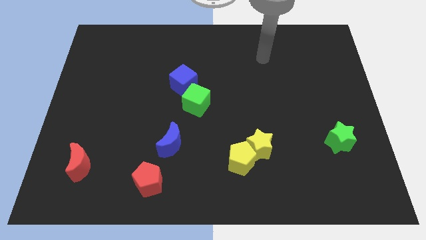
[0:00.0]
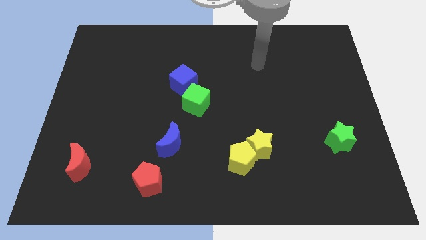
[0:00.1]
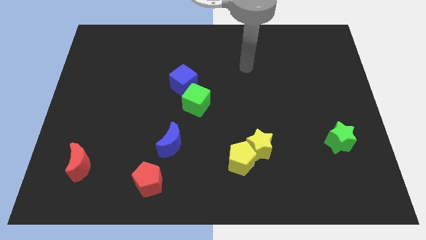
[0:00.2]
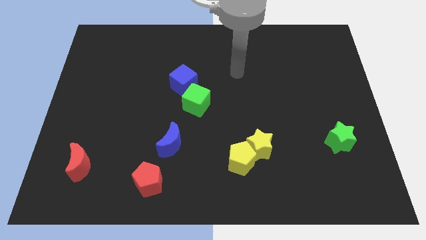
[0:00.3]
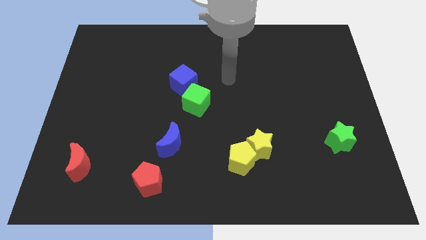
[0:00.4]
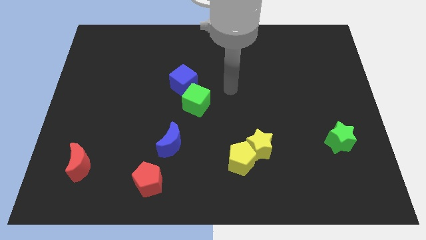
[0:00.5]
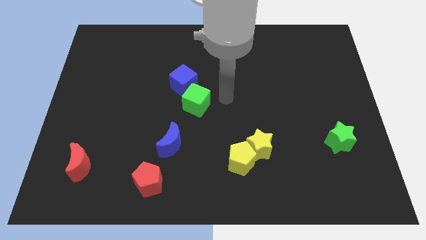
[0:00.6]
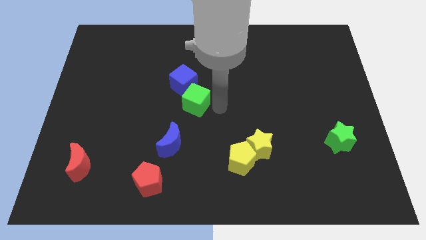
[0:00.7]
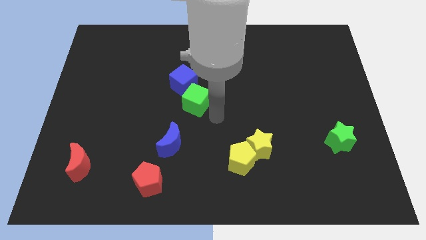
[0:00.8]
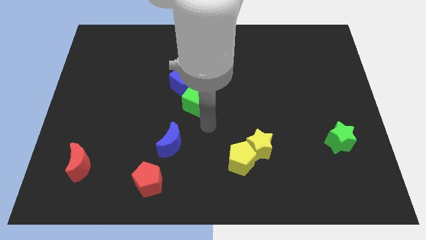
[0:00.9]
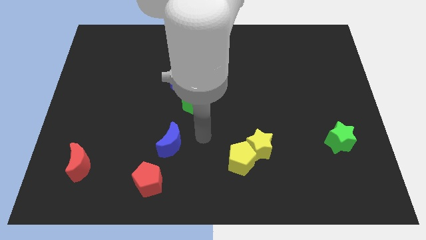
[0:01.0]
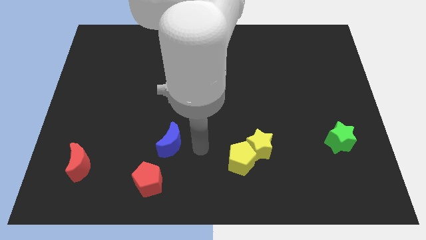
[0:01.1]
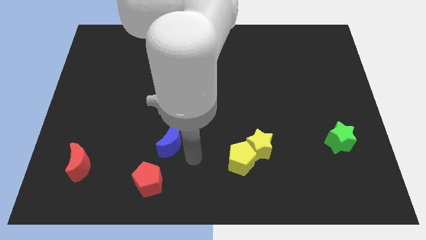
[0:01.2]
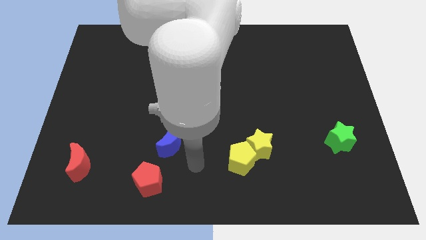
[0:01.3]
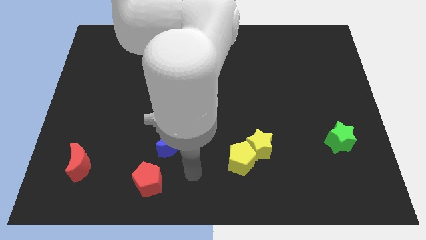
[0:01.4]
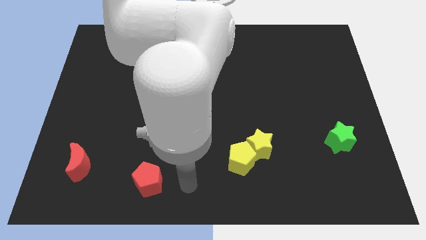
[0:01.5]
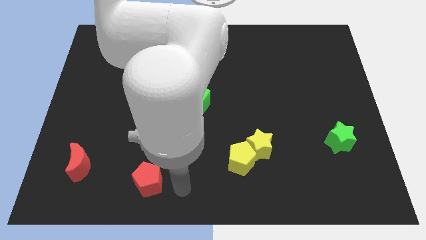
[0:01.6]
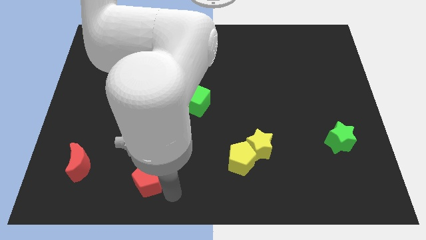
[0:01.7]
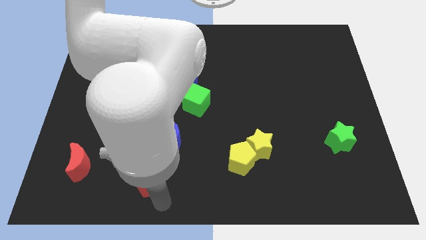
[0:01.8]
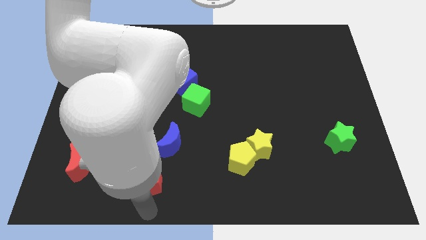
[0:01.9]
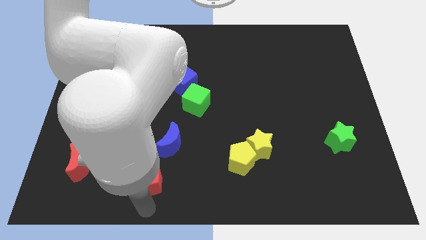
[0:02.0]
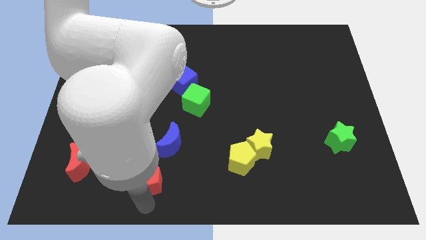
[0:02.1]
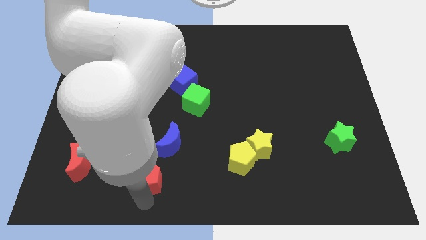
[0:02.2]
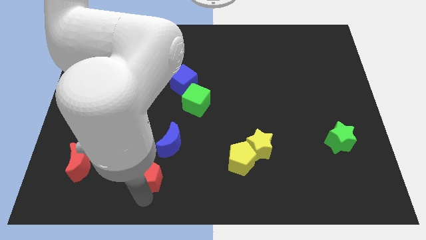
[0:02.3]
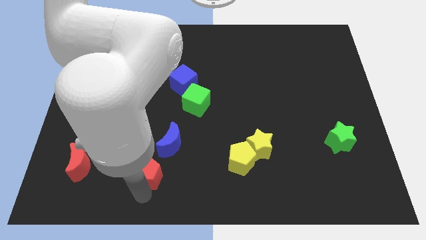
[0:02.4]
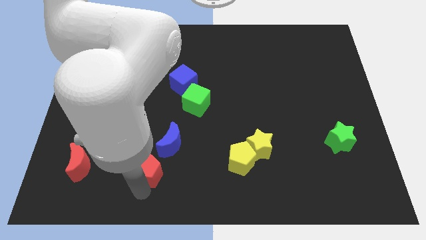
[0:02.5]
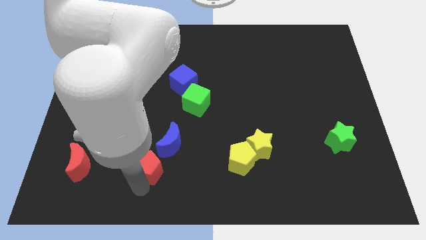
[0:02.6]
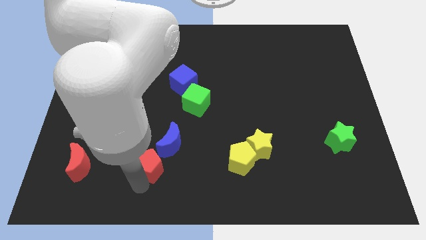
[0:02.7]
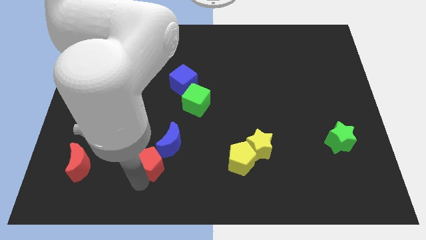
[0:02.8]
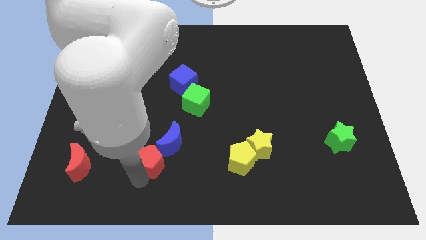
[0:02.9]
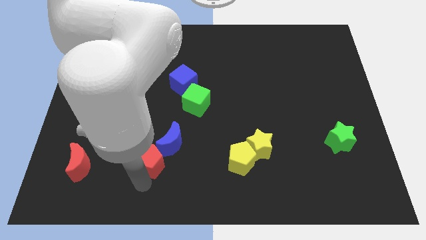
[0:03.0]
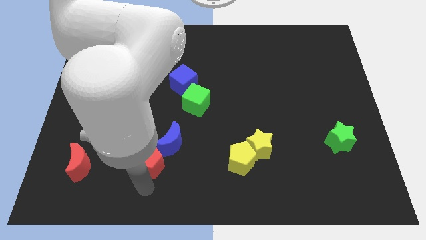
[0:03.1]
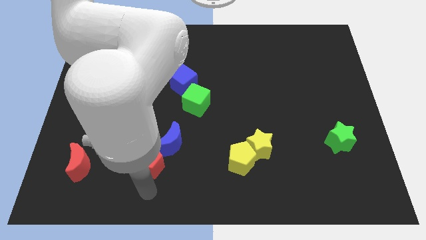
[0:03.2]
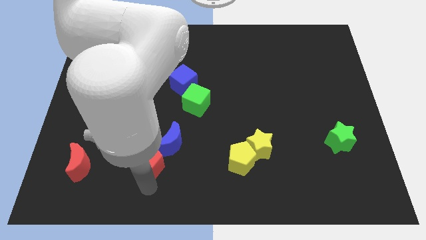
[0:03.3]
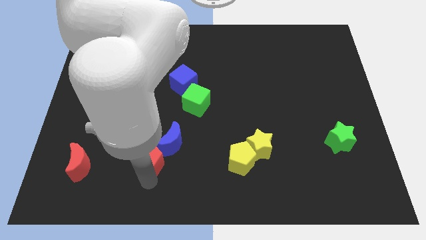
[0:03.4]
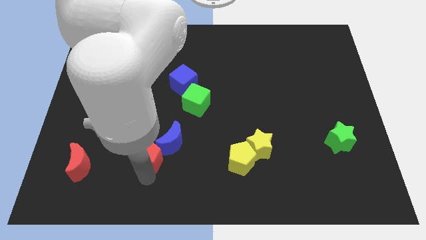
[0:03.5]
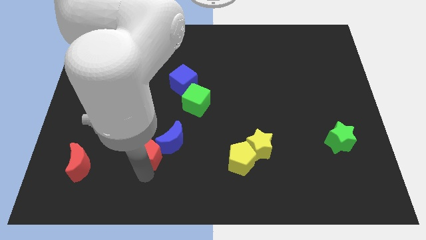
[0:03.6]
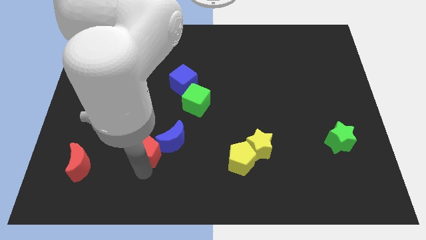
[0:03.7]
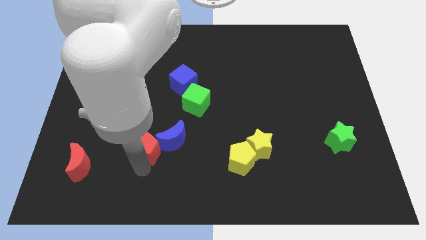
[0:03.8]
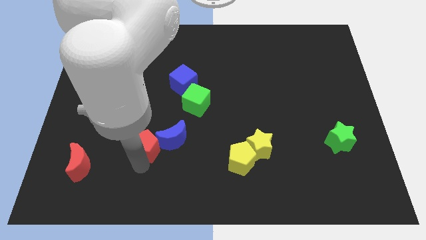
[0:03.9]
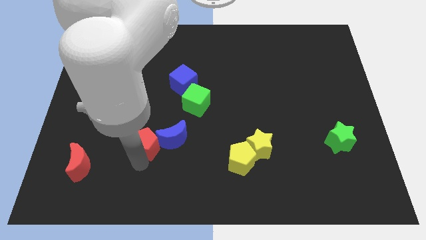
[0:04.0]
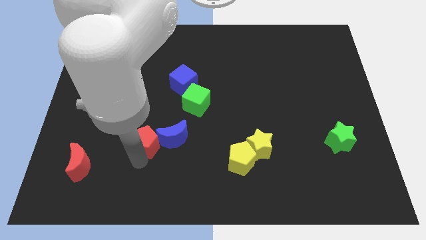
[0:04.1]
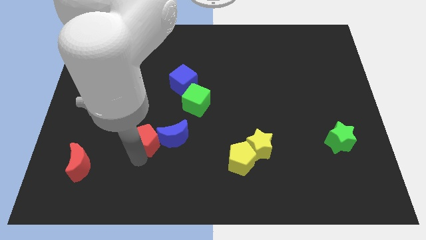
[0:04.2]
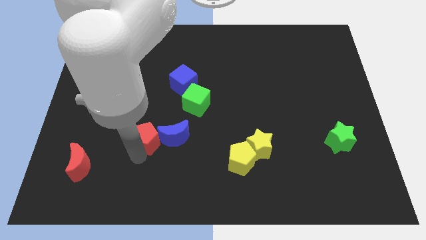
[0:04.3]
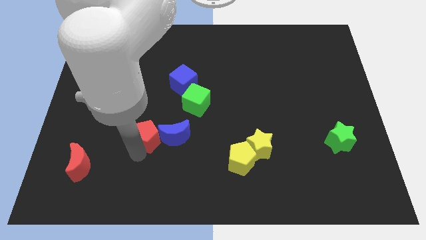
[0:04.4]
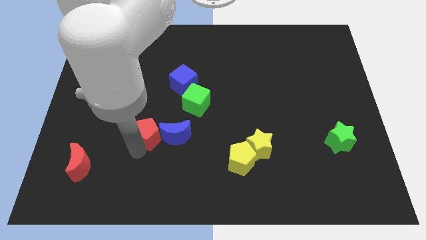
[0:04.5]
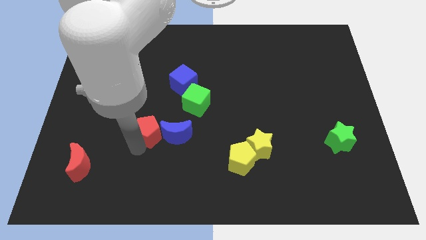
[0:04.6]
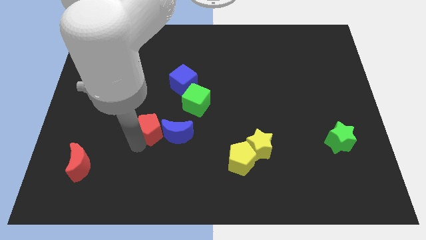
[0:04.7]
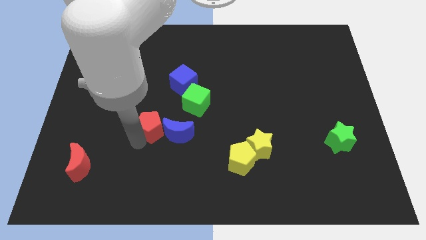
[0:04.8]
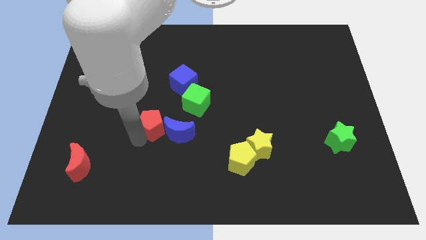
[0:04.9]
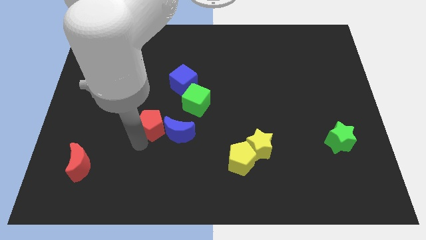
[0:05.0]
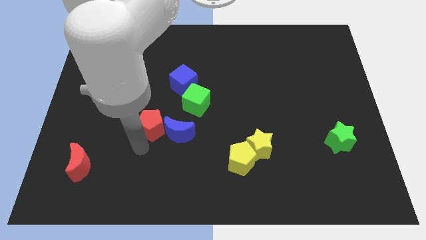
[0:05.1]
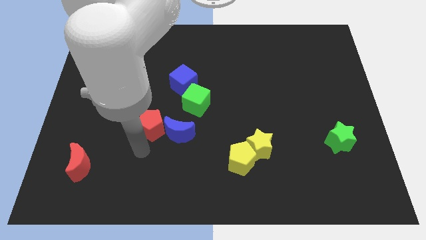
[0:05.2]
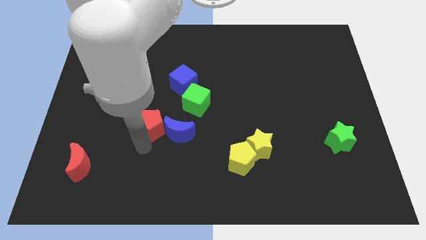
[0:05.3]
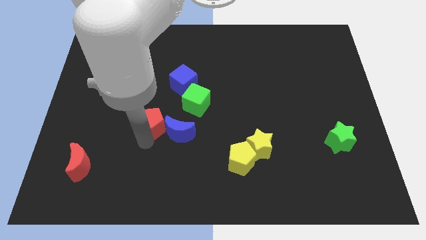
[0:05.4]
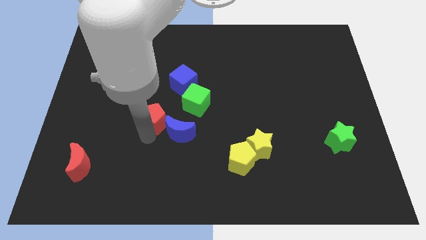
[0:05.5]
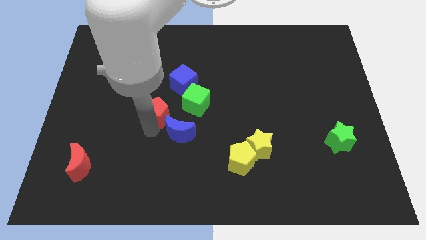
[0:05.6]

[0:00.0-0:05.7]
slide the red pentagon left of the green cube

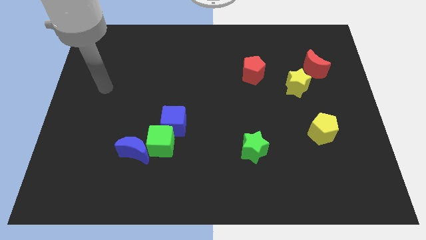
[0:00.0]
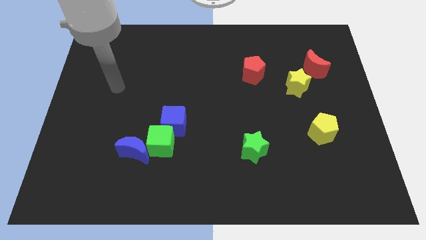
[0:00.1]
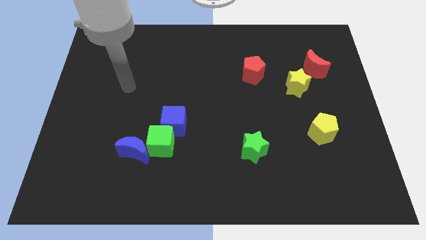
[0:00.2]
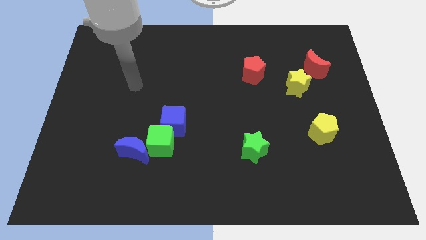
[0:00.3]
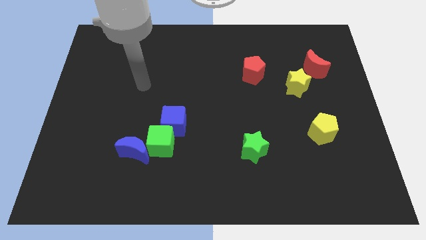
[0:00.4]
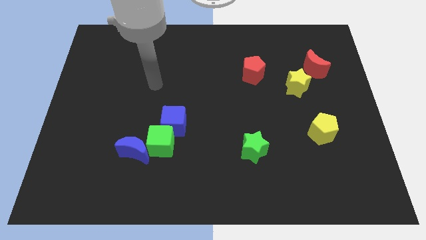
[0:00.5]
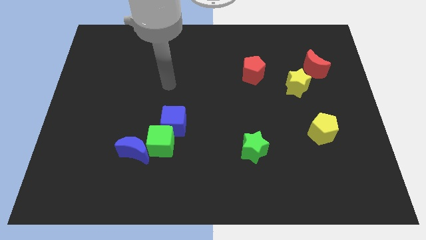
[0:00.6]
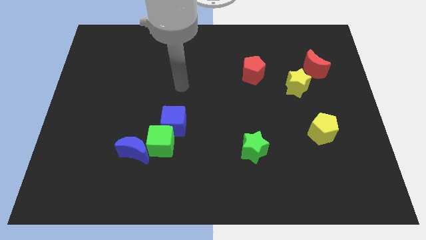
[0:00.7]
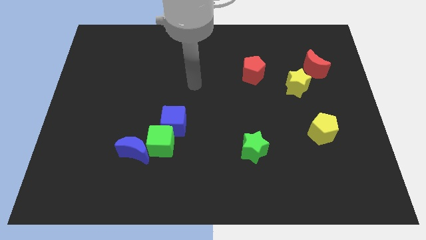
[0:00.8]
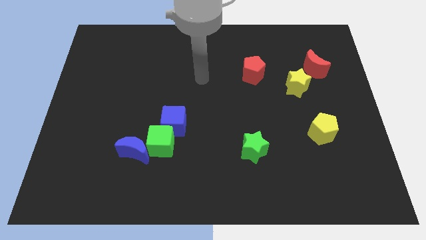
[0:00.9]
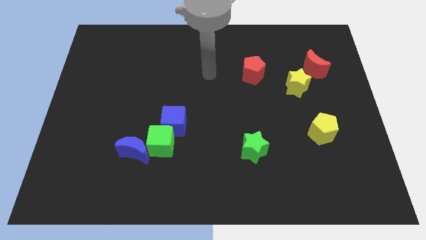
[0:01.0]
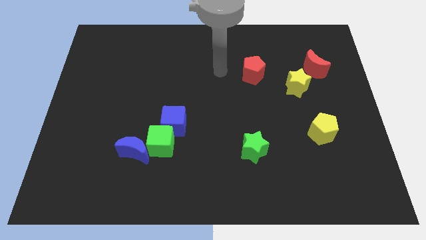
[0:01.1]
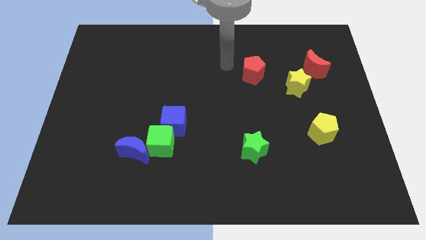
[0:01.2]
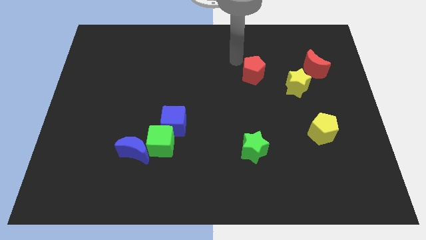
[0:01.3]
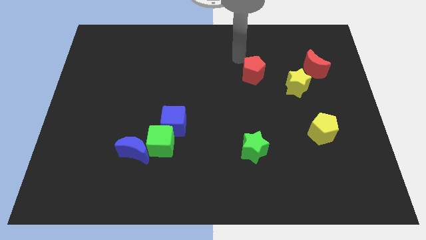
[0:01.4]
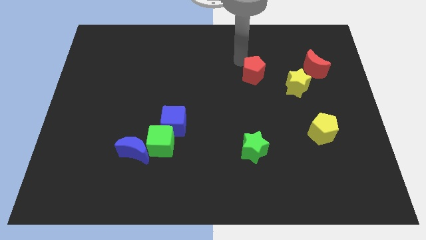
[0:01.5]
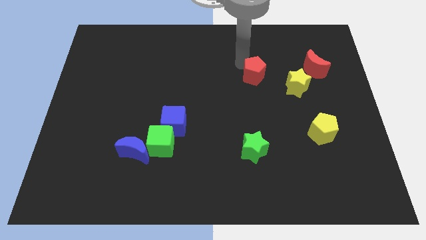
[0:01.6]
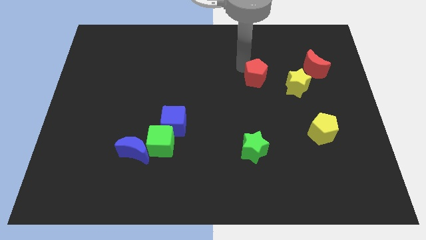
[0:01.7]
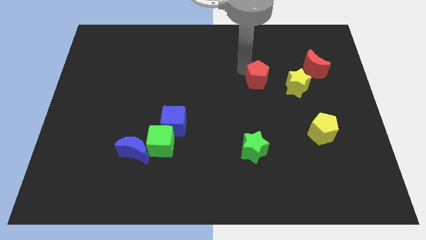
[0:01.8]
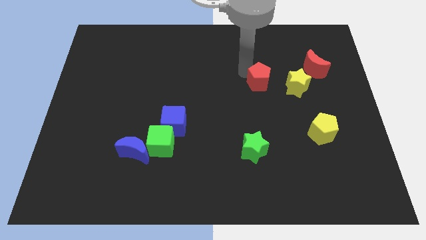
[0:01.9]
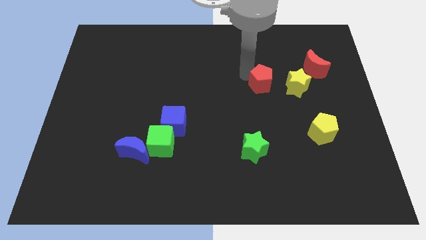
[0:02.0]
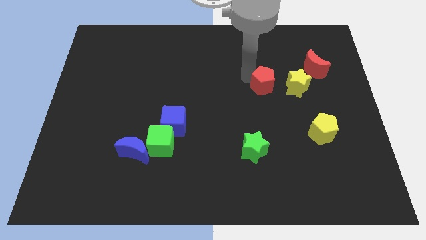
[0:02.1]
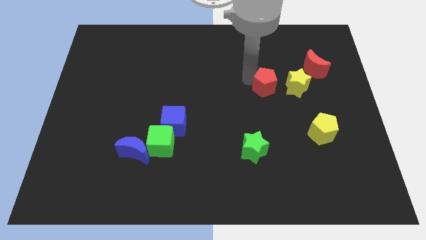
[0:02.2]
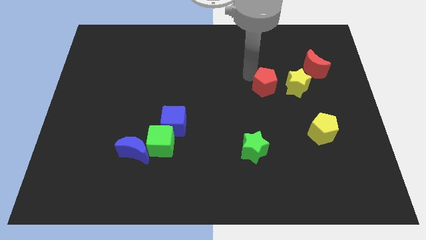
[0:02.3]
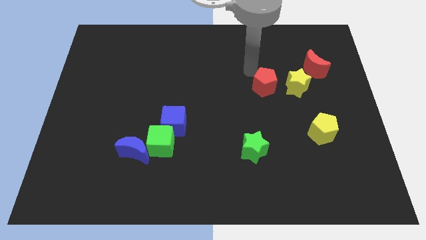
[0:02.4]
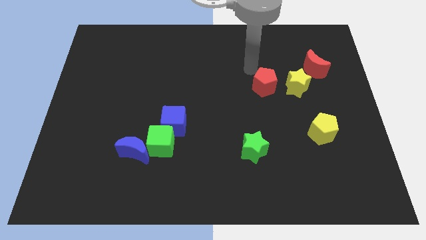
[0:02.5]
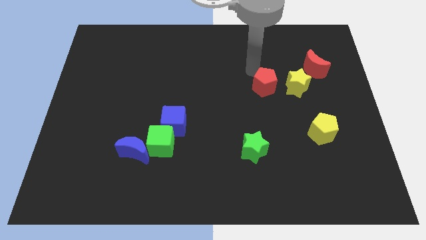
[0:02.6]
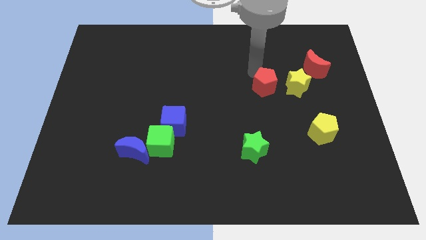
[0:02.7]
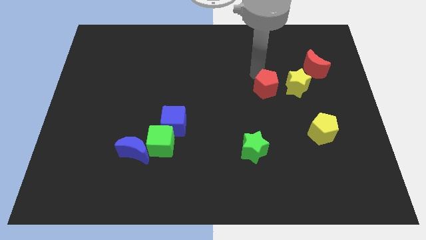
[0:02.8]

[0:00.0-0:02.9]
push the red pentagon diagonally down and to the left of the yellow star
